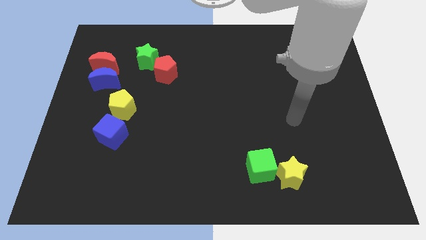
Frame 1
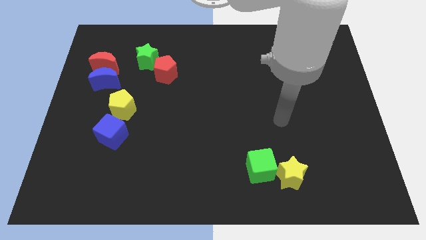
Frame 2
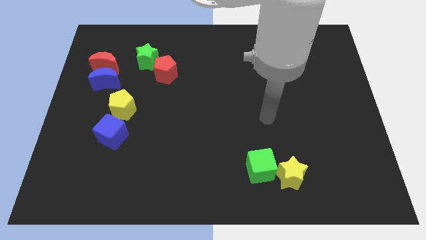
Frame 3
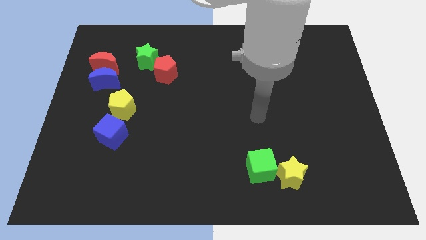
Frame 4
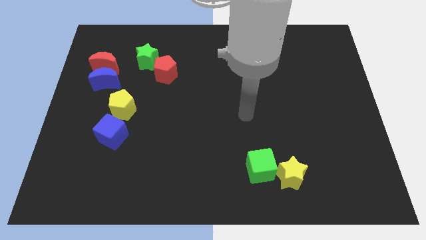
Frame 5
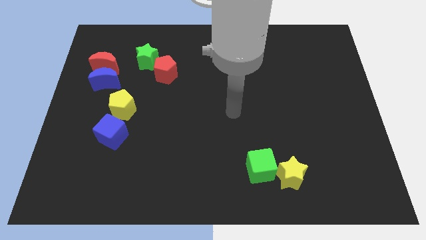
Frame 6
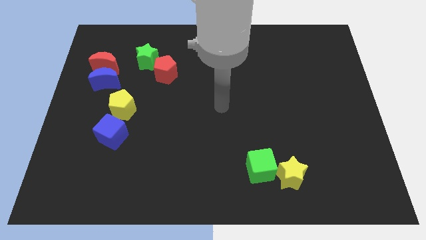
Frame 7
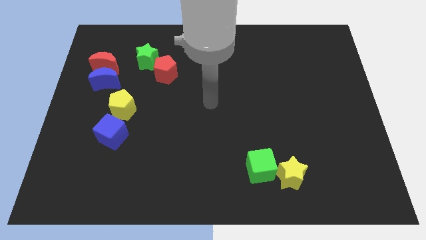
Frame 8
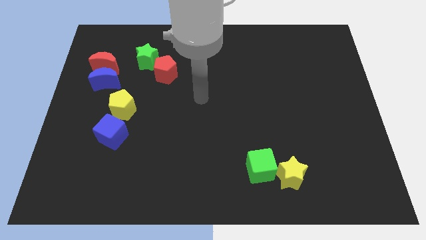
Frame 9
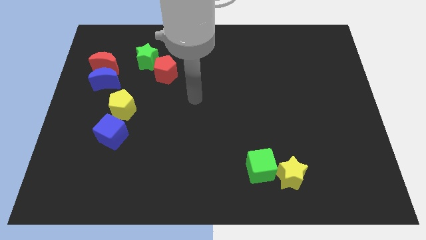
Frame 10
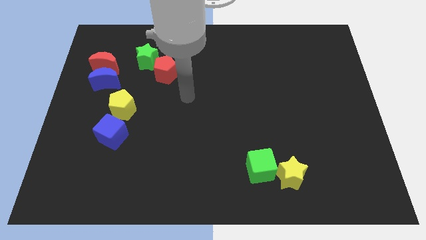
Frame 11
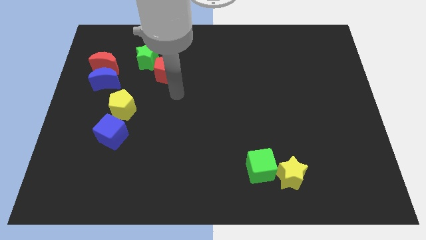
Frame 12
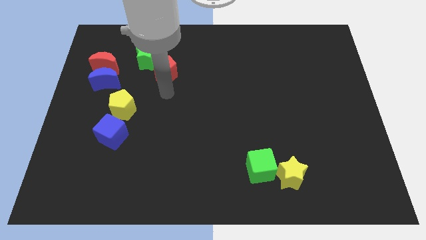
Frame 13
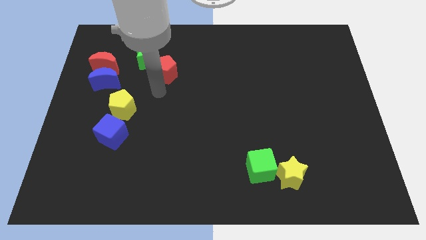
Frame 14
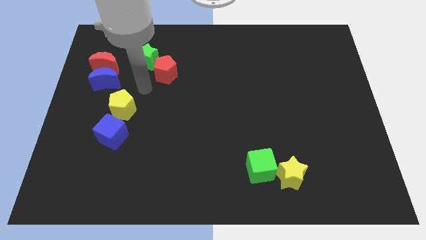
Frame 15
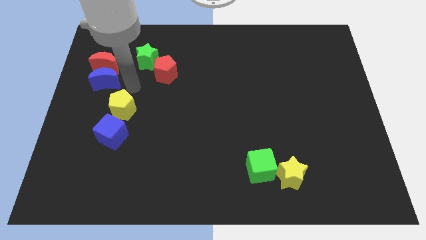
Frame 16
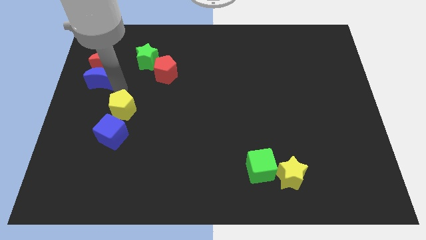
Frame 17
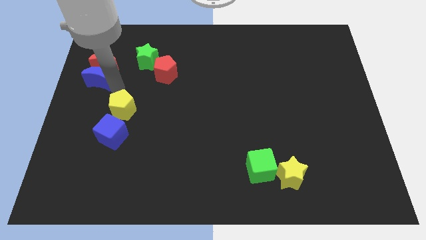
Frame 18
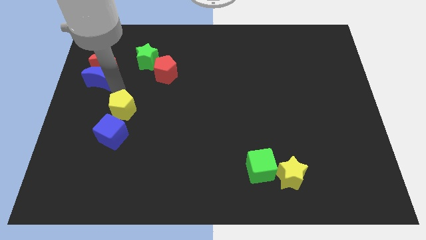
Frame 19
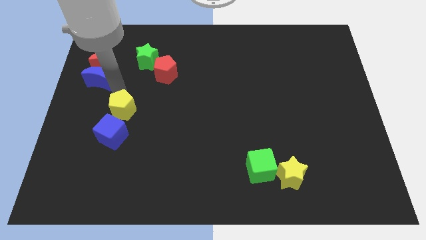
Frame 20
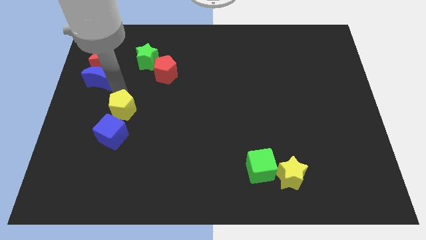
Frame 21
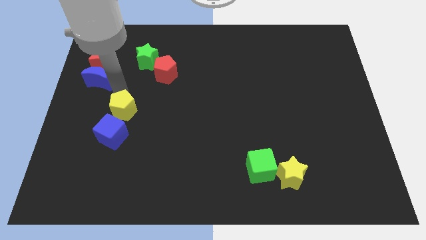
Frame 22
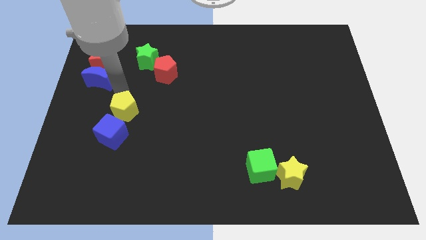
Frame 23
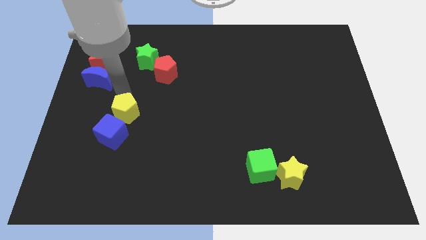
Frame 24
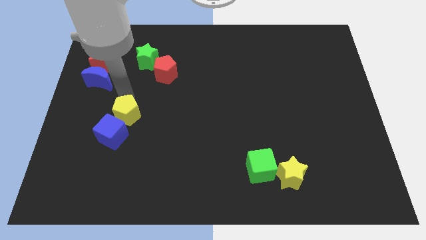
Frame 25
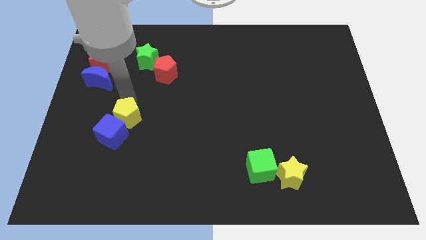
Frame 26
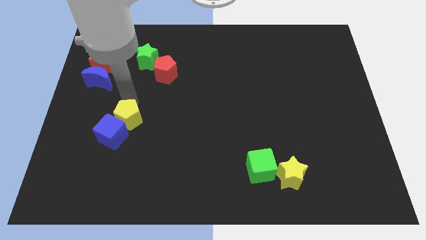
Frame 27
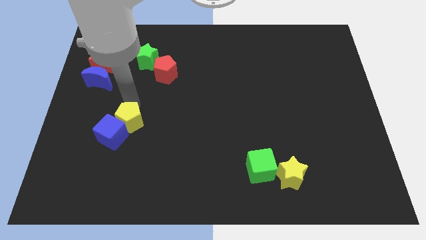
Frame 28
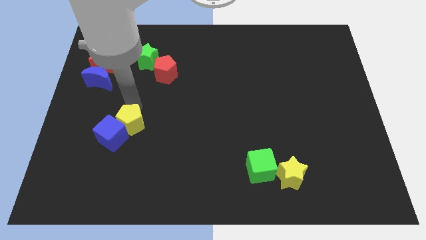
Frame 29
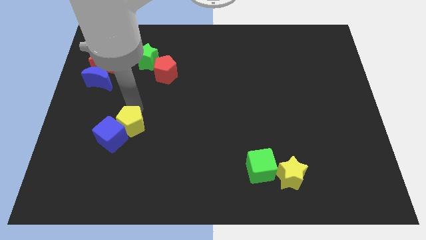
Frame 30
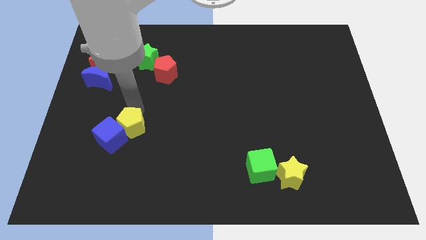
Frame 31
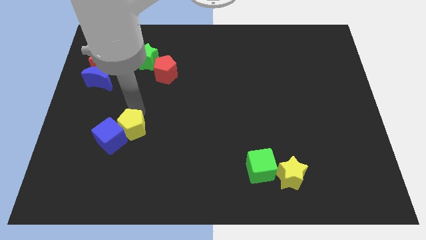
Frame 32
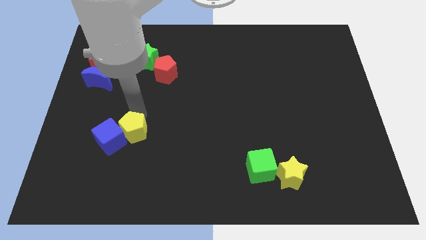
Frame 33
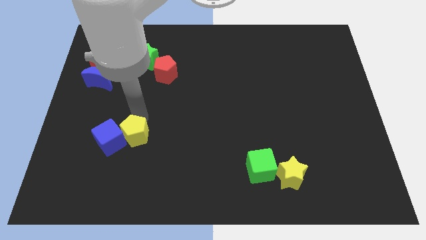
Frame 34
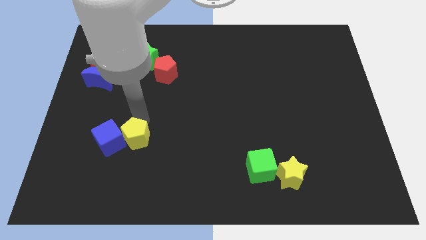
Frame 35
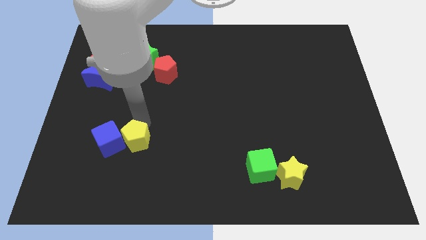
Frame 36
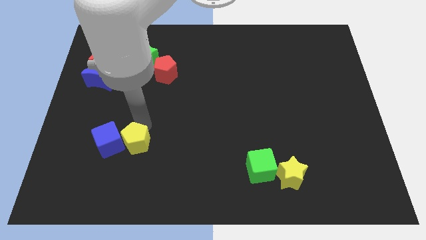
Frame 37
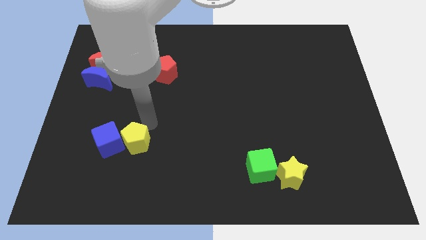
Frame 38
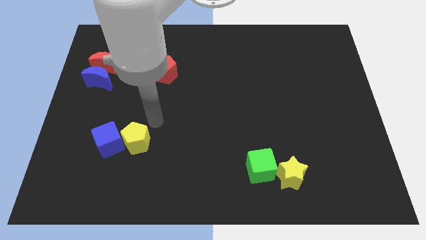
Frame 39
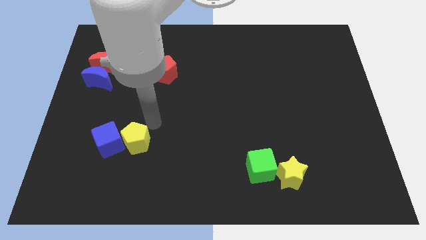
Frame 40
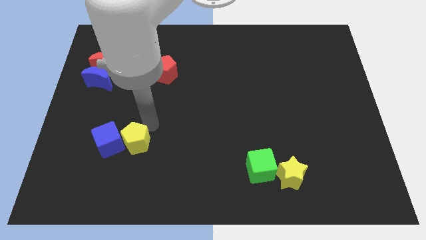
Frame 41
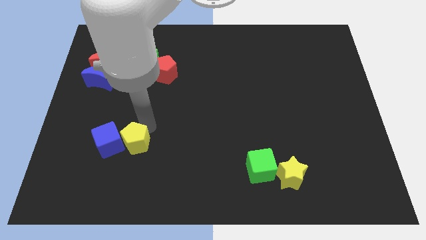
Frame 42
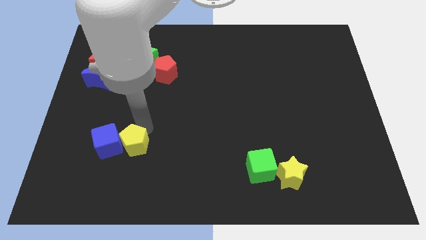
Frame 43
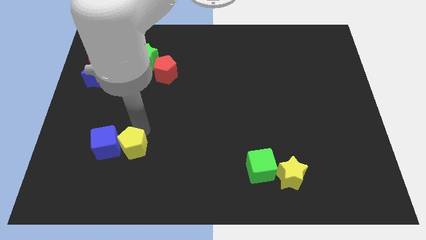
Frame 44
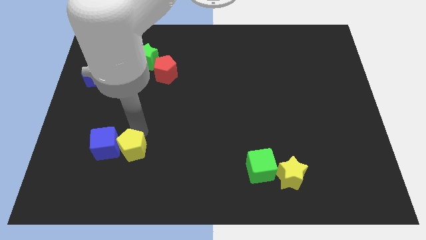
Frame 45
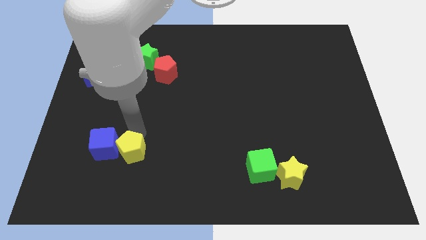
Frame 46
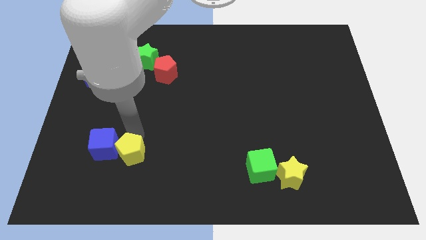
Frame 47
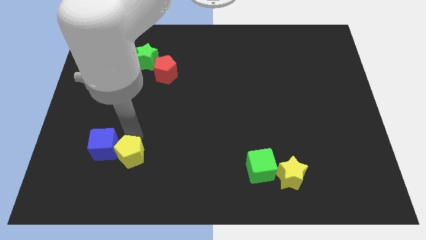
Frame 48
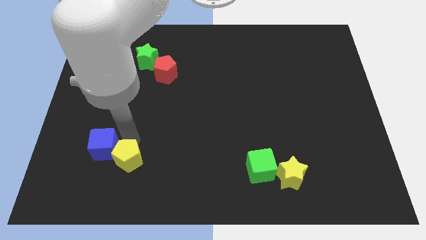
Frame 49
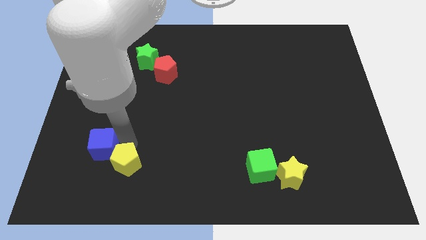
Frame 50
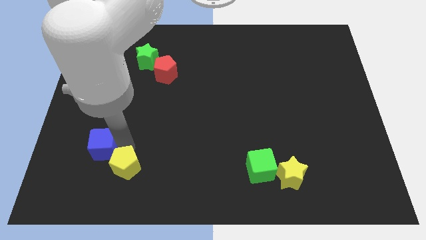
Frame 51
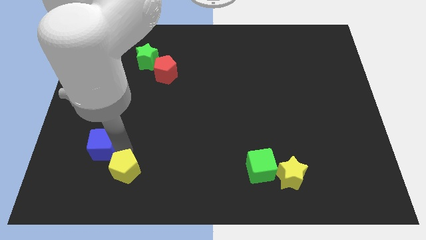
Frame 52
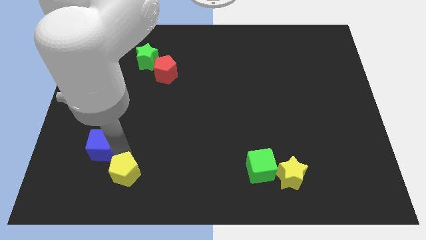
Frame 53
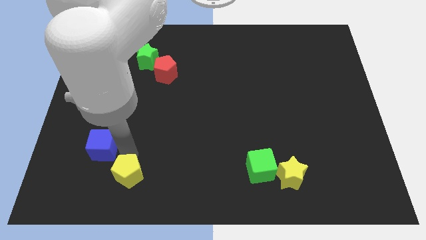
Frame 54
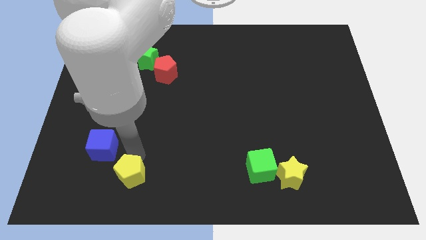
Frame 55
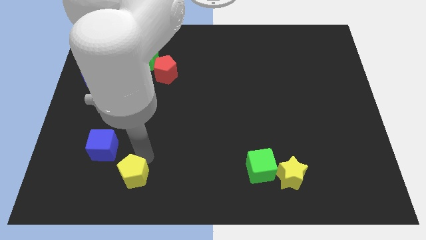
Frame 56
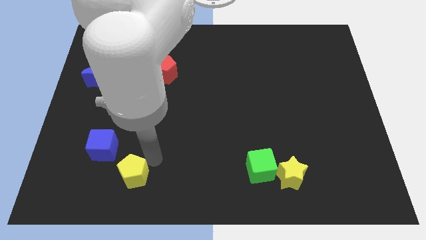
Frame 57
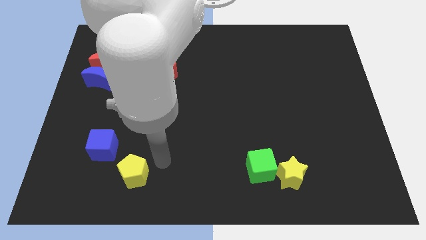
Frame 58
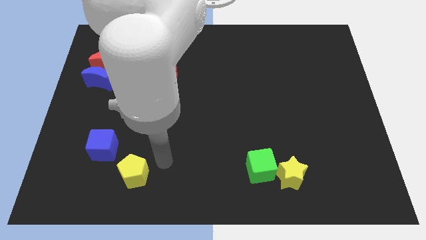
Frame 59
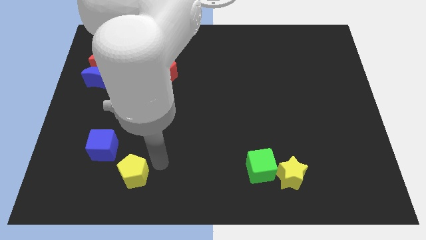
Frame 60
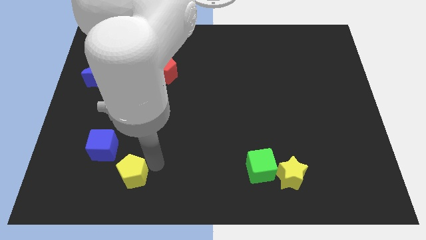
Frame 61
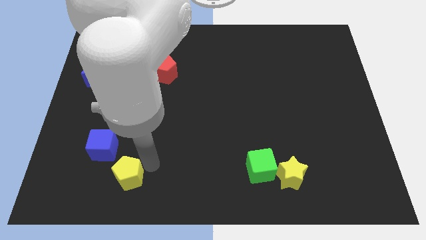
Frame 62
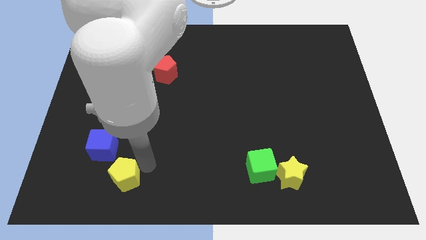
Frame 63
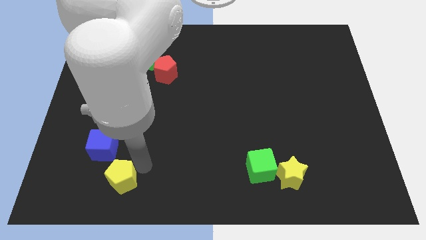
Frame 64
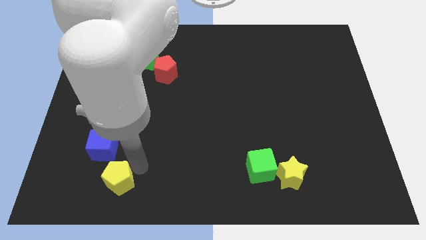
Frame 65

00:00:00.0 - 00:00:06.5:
slide the yellow pentagon to the bottom of the blue cube

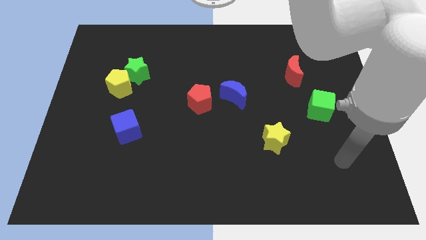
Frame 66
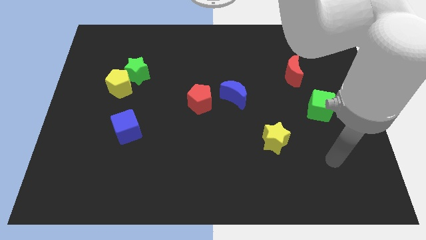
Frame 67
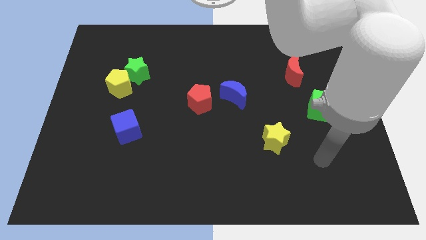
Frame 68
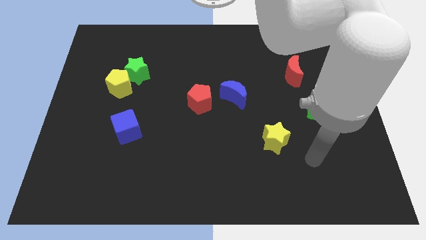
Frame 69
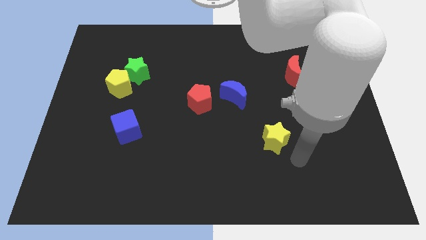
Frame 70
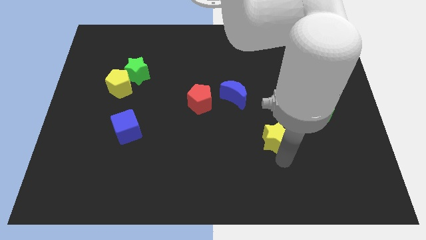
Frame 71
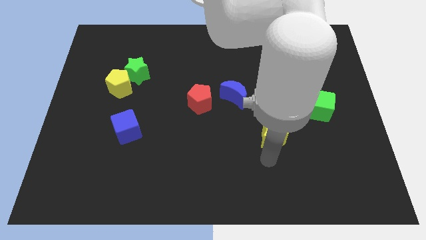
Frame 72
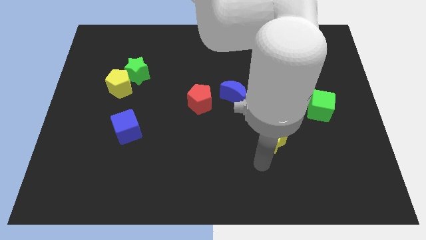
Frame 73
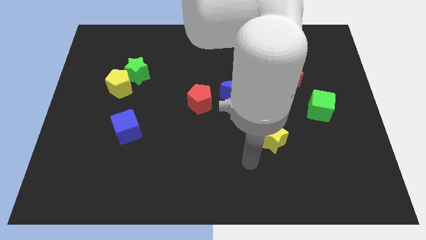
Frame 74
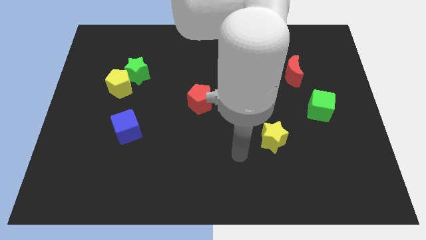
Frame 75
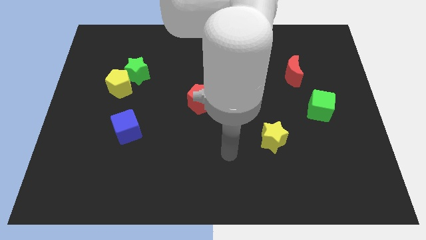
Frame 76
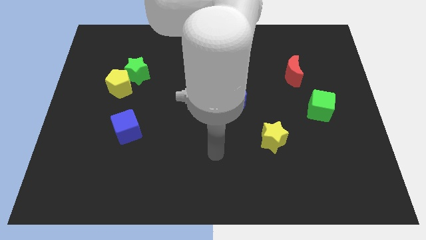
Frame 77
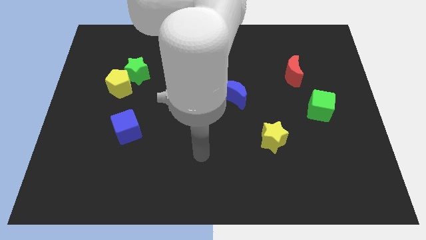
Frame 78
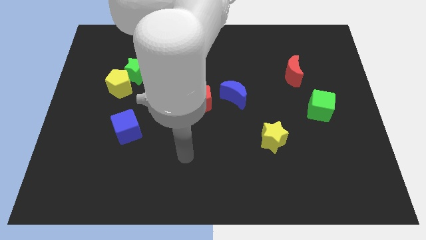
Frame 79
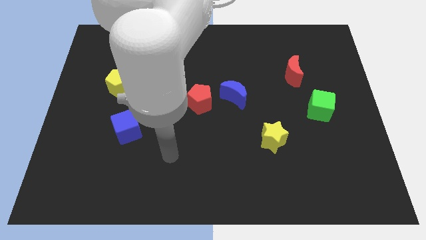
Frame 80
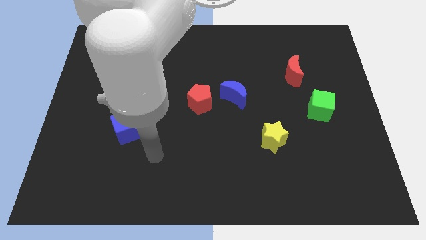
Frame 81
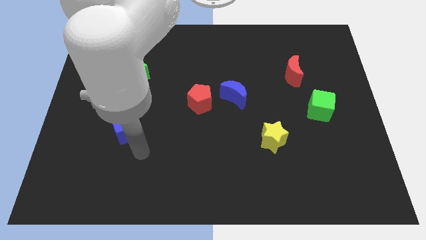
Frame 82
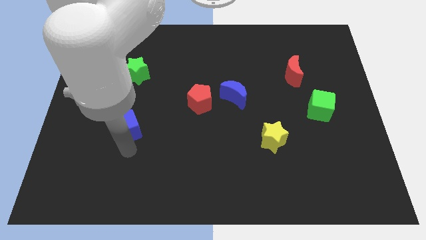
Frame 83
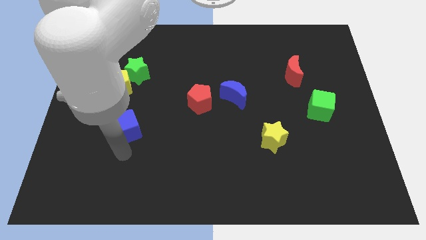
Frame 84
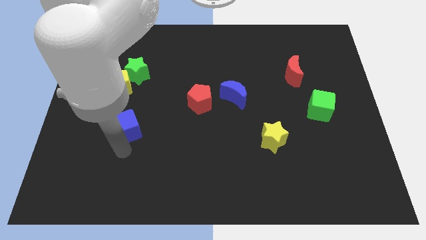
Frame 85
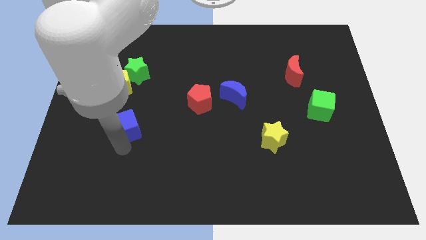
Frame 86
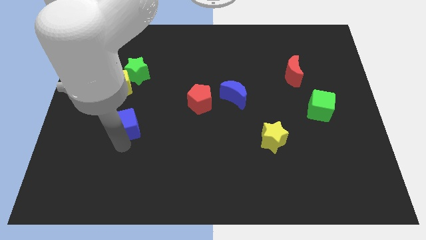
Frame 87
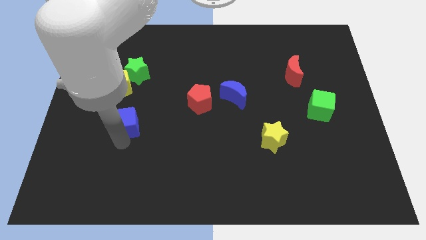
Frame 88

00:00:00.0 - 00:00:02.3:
put the blue cube to the bottom side of the green star
